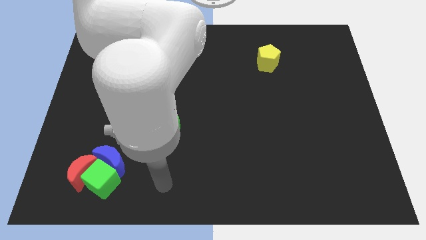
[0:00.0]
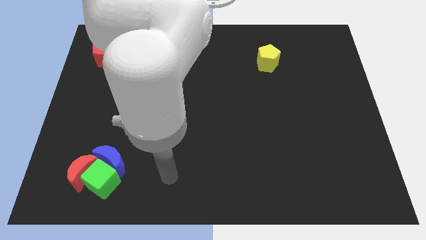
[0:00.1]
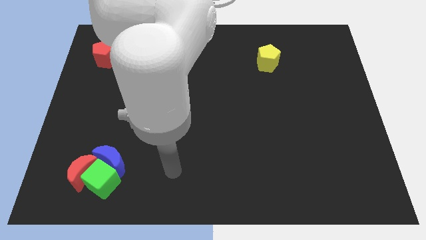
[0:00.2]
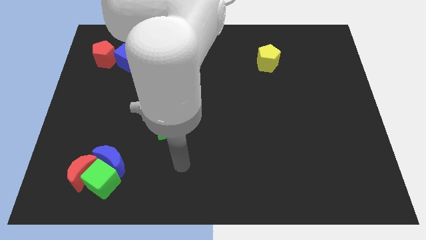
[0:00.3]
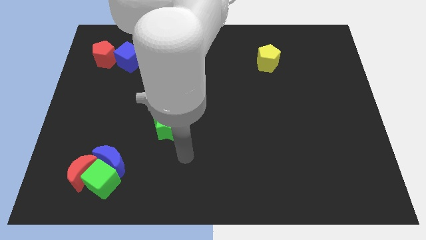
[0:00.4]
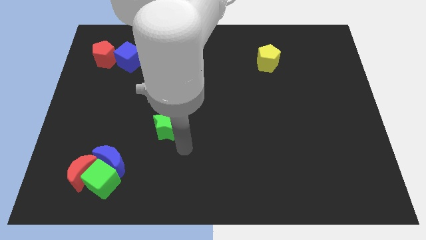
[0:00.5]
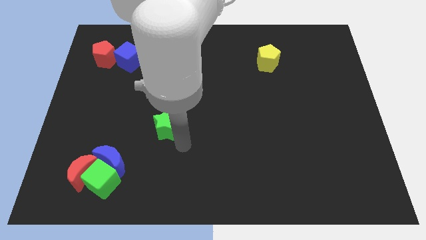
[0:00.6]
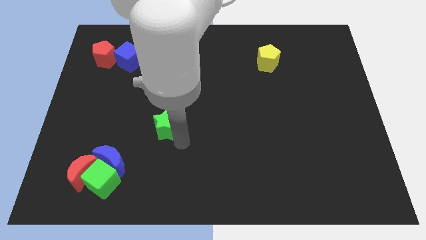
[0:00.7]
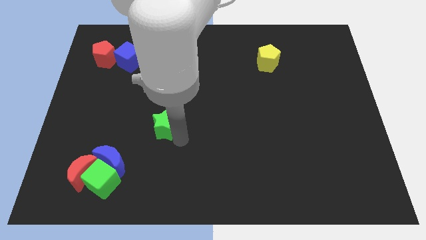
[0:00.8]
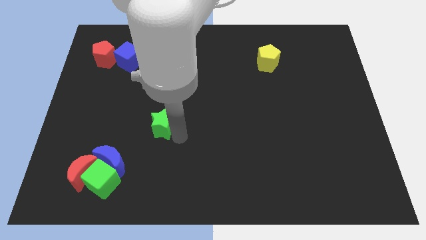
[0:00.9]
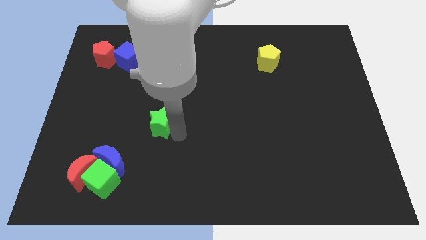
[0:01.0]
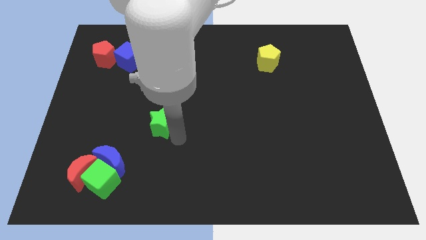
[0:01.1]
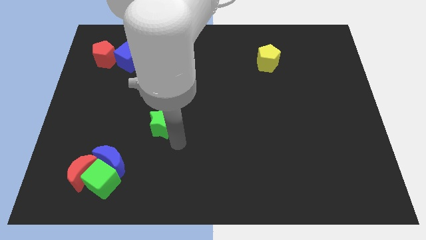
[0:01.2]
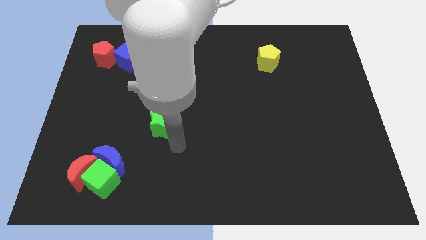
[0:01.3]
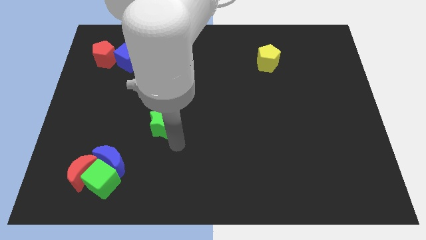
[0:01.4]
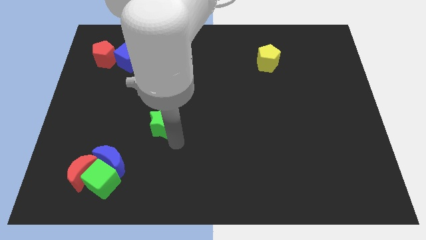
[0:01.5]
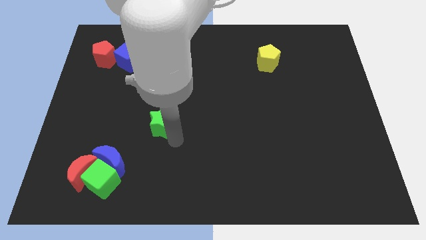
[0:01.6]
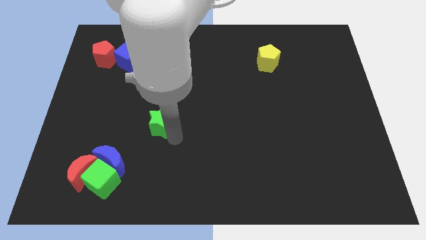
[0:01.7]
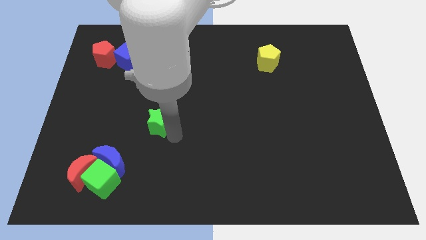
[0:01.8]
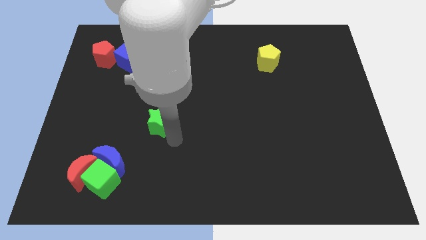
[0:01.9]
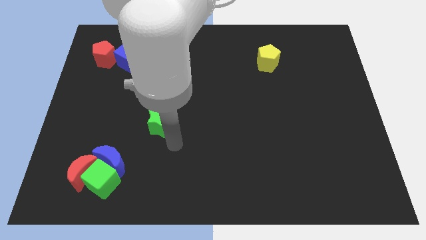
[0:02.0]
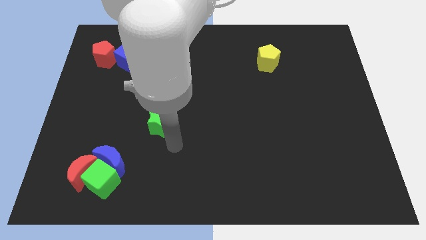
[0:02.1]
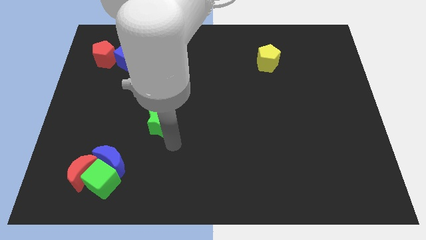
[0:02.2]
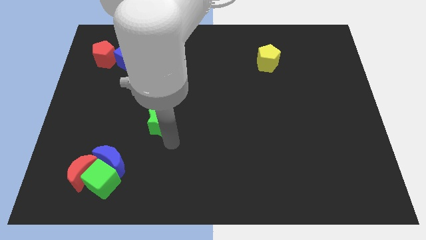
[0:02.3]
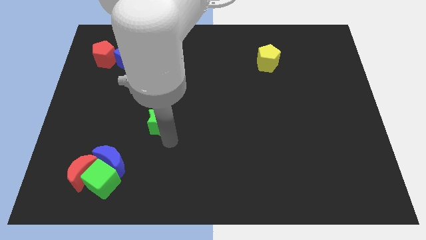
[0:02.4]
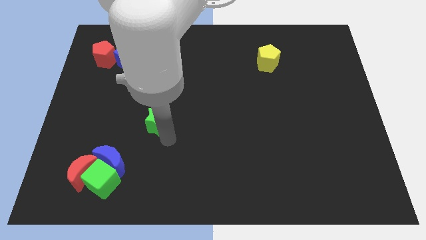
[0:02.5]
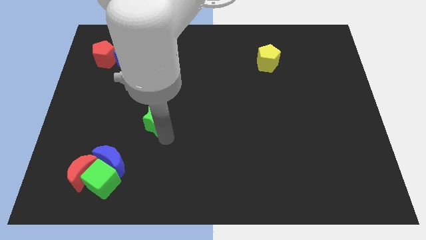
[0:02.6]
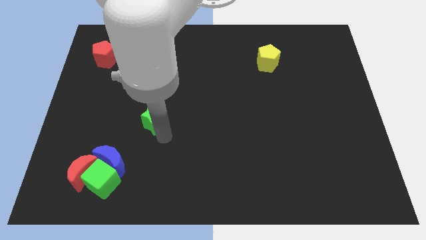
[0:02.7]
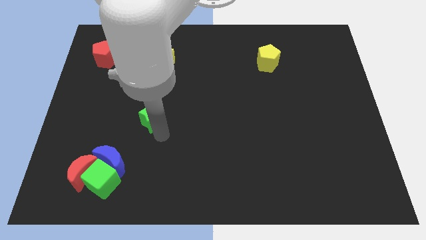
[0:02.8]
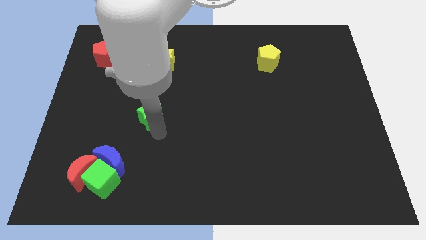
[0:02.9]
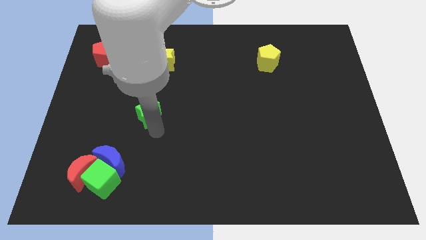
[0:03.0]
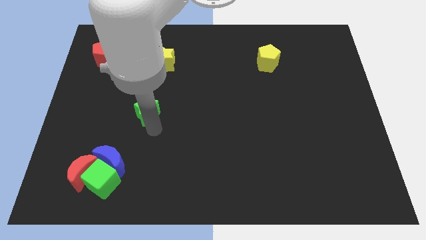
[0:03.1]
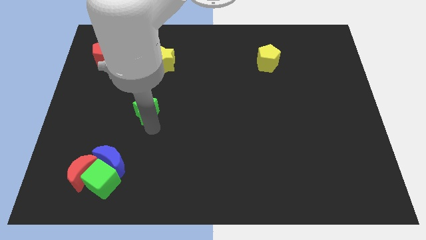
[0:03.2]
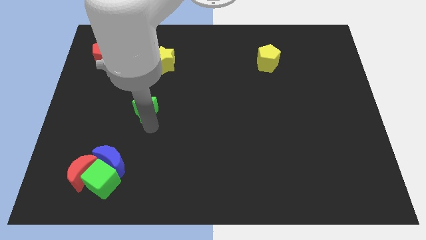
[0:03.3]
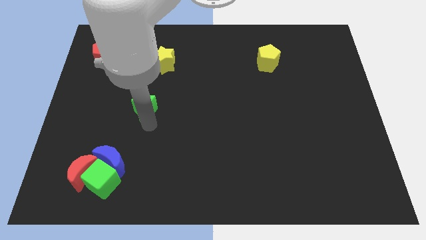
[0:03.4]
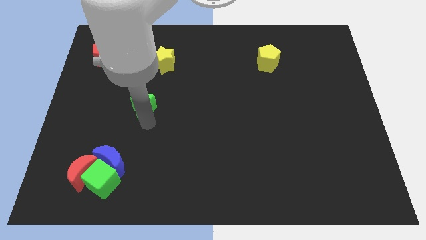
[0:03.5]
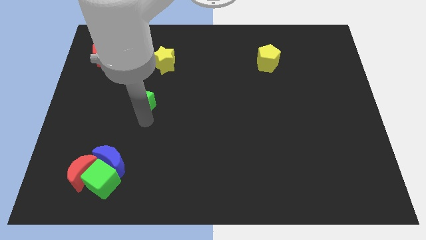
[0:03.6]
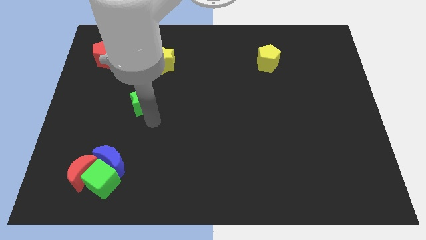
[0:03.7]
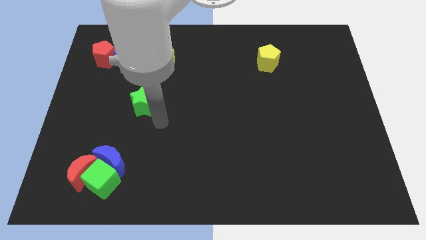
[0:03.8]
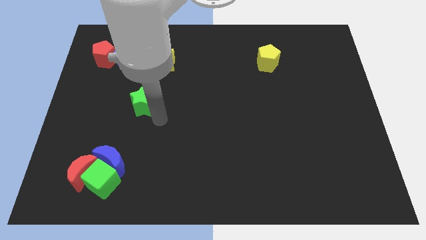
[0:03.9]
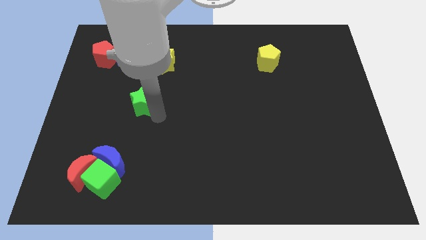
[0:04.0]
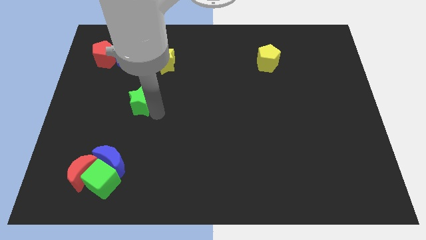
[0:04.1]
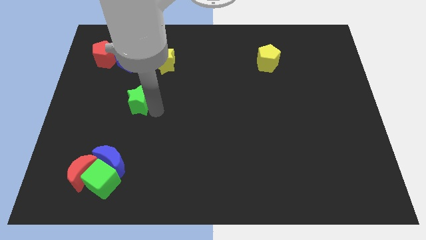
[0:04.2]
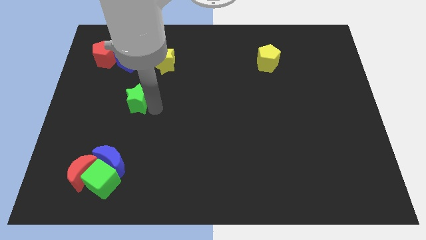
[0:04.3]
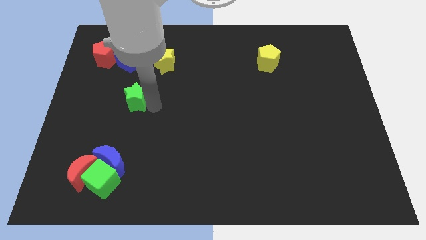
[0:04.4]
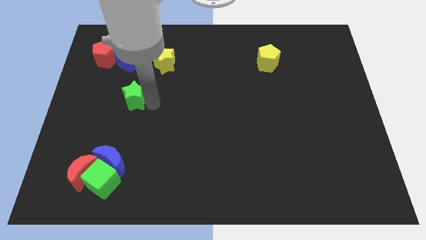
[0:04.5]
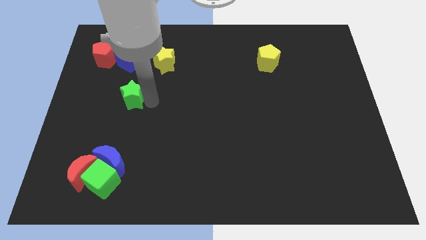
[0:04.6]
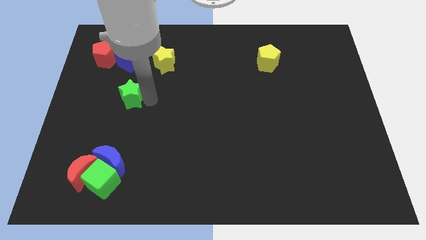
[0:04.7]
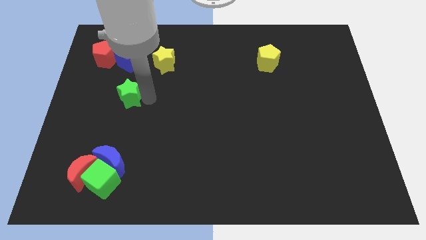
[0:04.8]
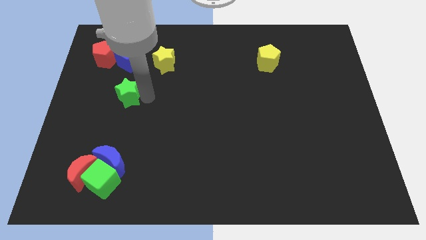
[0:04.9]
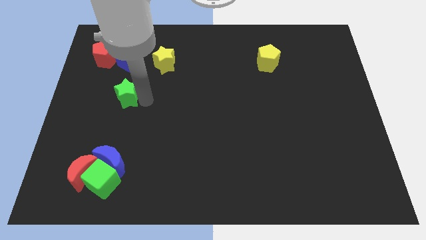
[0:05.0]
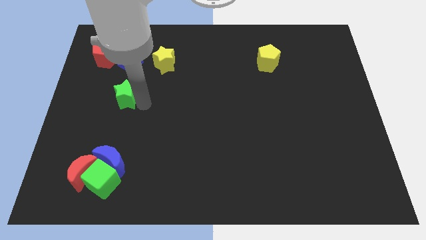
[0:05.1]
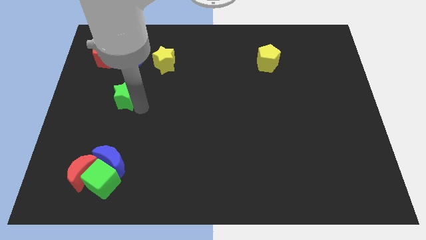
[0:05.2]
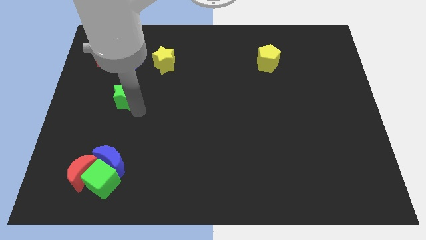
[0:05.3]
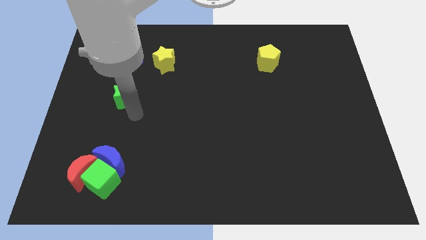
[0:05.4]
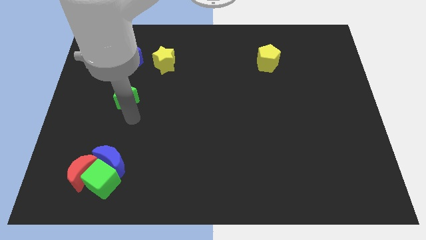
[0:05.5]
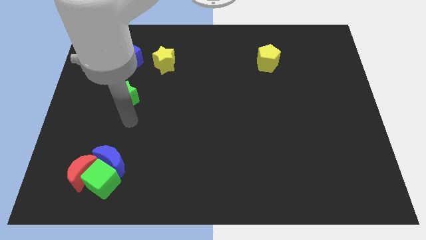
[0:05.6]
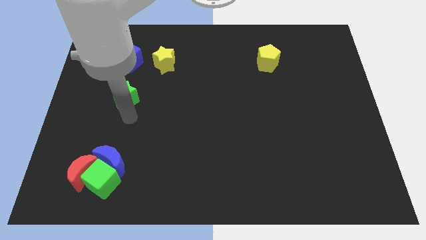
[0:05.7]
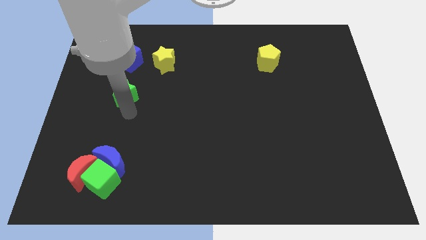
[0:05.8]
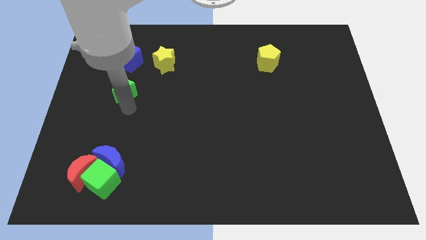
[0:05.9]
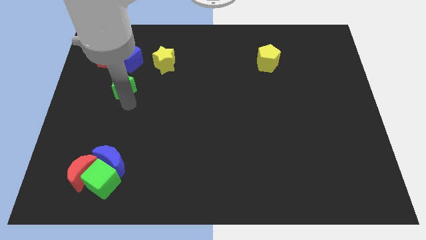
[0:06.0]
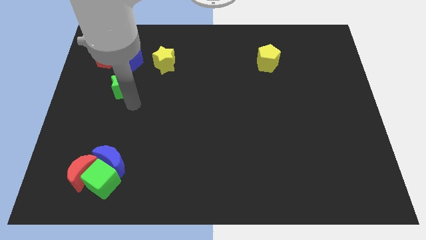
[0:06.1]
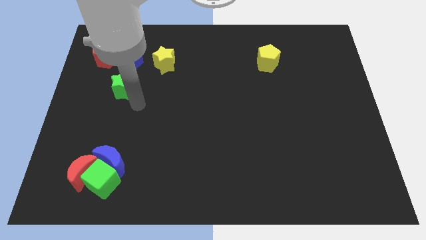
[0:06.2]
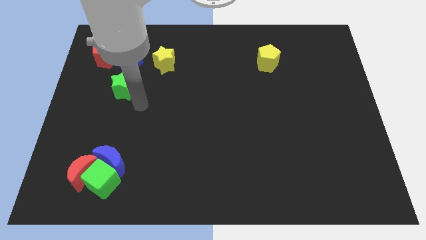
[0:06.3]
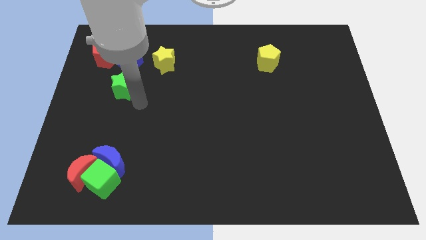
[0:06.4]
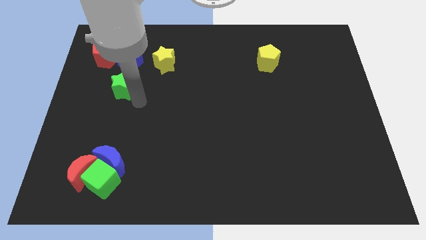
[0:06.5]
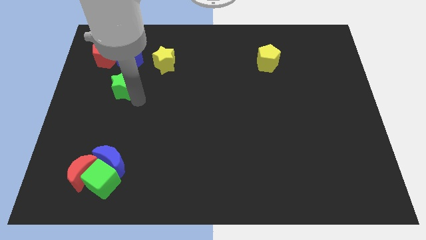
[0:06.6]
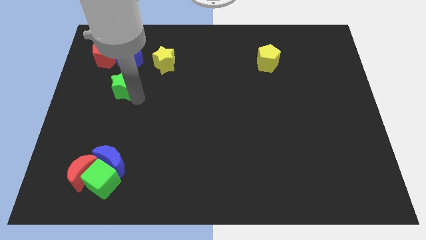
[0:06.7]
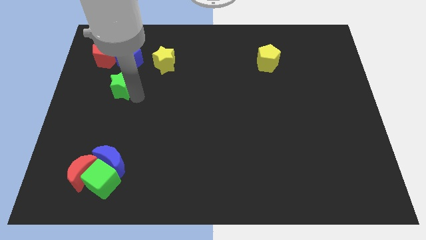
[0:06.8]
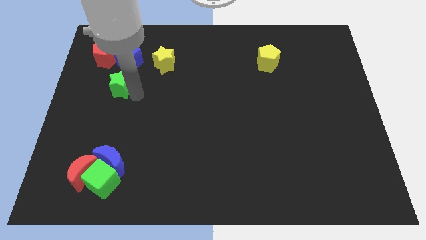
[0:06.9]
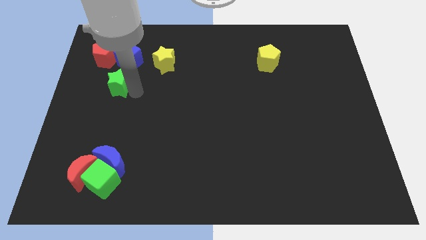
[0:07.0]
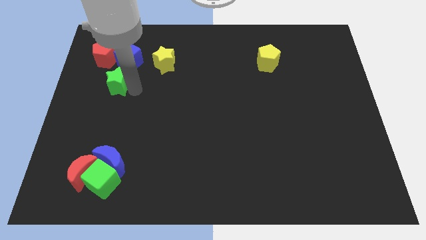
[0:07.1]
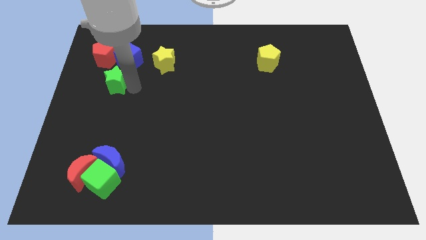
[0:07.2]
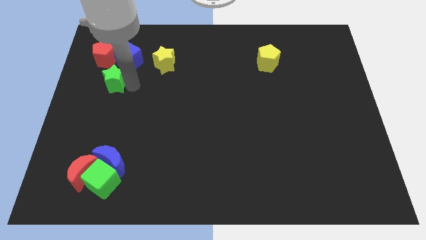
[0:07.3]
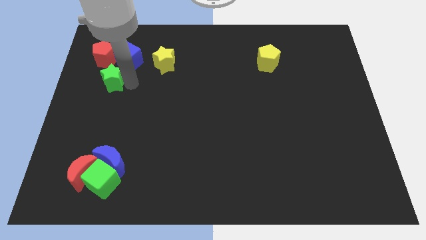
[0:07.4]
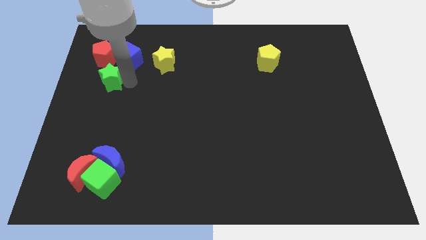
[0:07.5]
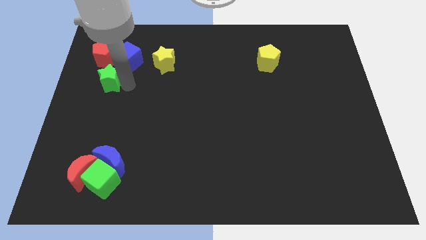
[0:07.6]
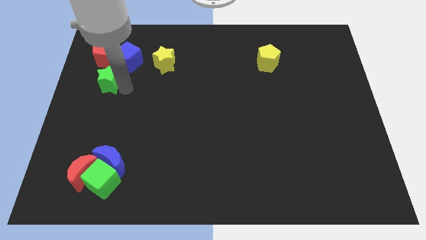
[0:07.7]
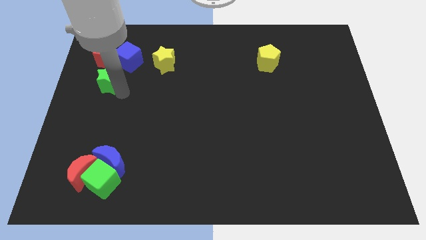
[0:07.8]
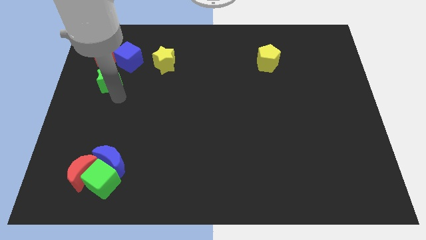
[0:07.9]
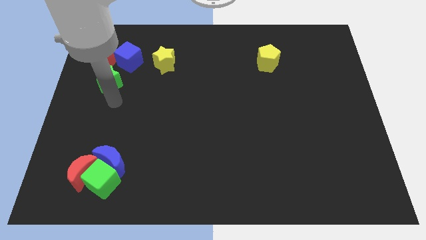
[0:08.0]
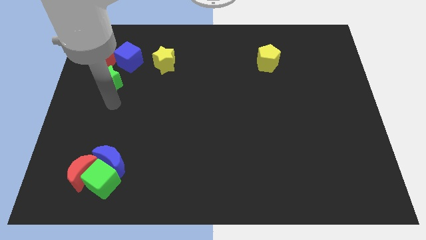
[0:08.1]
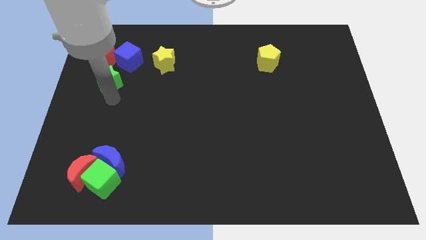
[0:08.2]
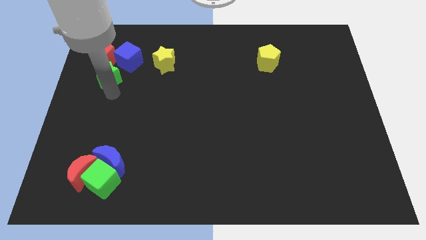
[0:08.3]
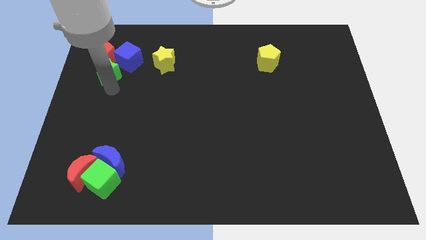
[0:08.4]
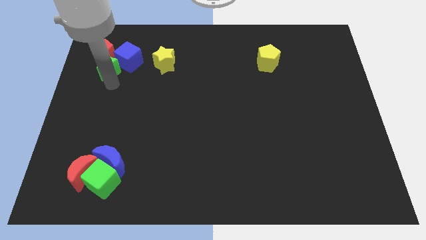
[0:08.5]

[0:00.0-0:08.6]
push the green star close to the red pentagon
